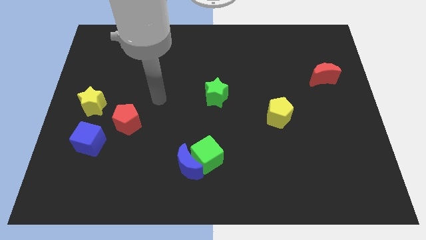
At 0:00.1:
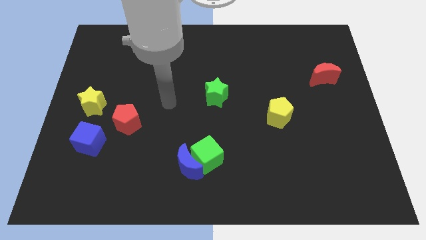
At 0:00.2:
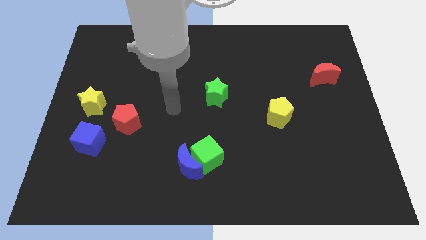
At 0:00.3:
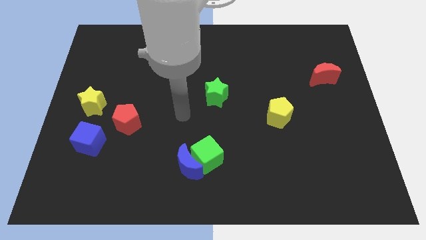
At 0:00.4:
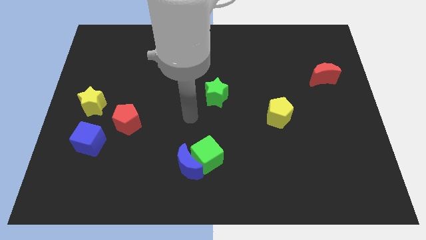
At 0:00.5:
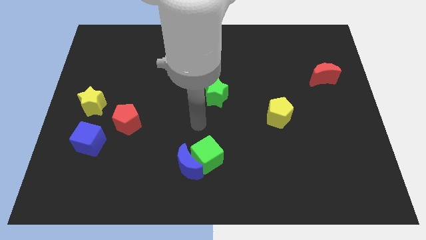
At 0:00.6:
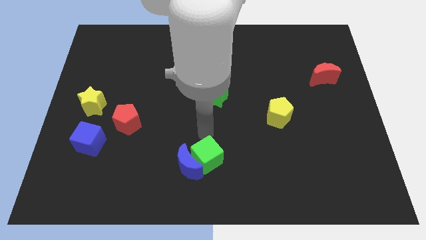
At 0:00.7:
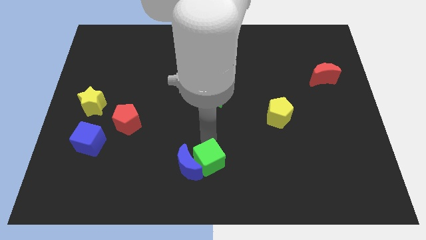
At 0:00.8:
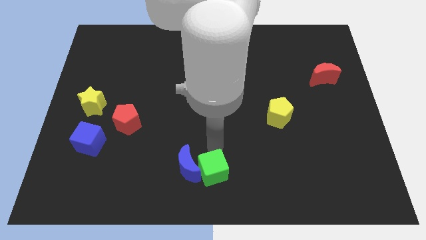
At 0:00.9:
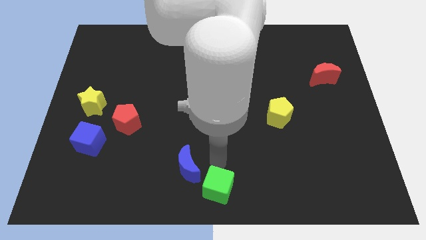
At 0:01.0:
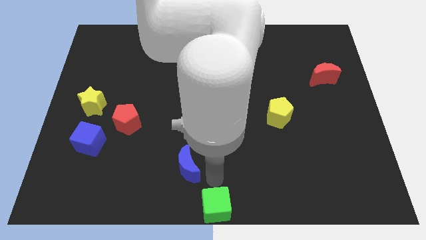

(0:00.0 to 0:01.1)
move the blue moon away from the green cube

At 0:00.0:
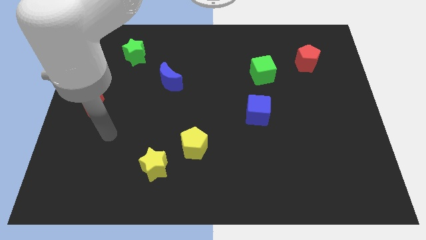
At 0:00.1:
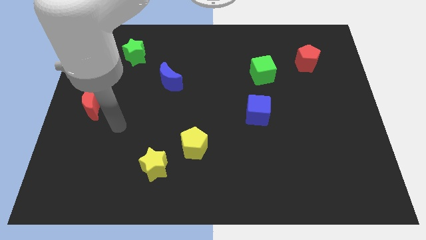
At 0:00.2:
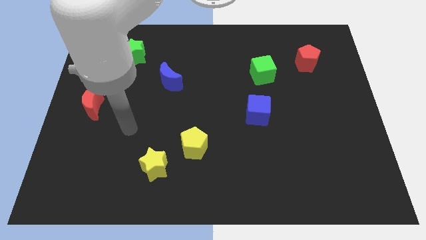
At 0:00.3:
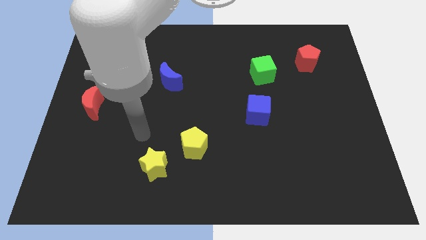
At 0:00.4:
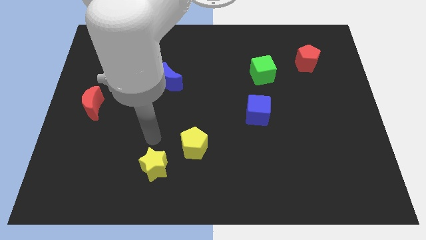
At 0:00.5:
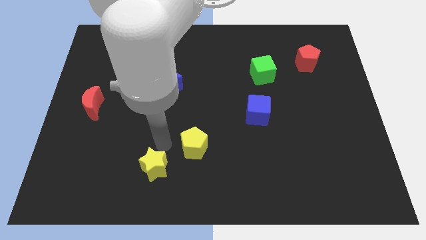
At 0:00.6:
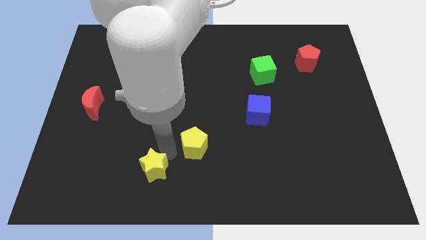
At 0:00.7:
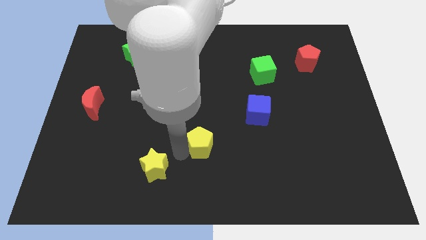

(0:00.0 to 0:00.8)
move the yellow star away from the yellow pentagon

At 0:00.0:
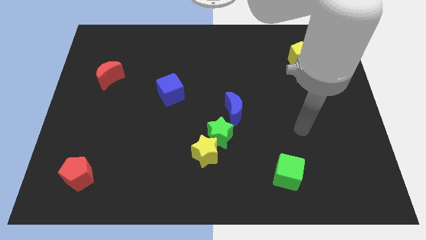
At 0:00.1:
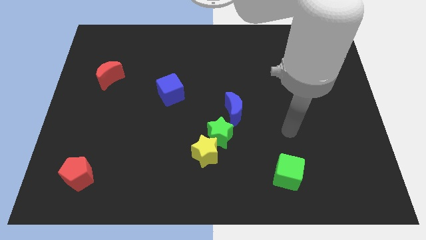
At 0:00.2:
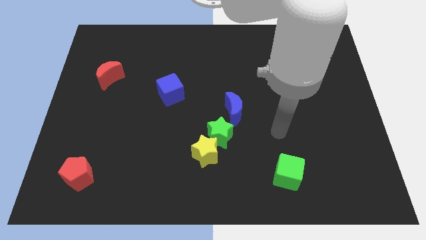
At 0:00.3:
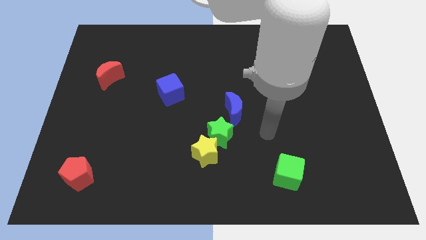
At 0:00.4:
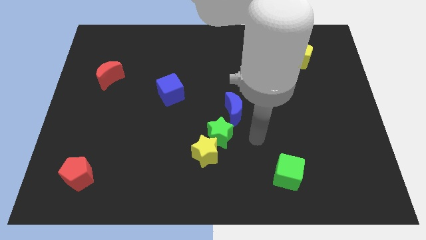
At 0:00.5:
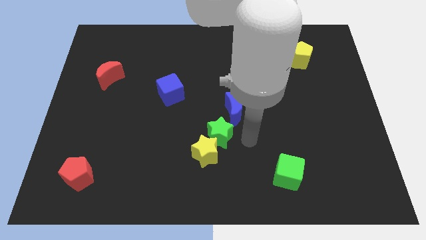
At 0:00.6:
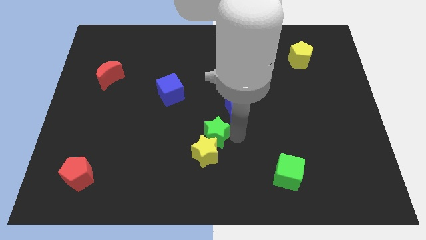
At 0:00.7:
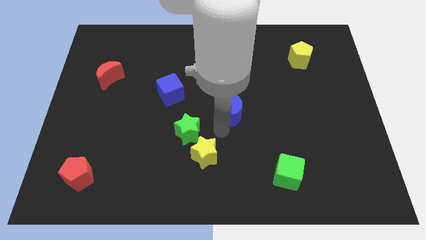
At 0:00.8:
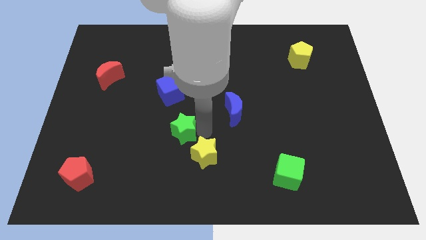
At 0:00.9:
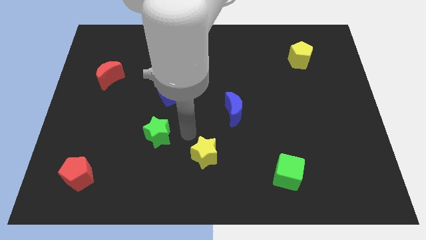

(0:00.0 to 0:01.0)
separate the yellow star from the green star

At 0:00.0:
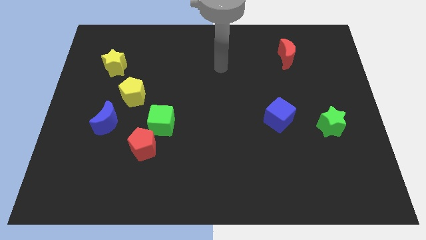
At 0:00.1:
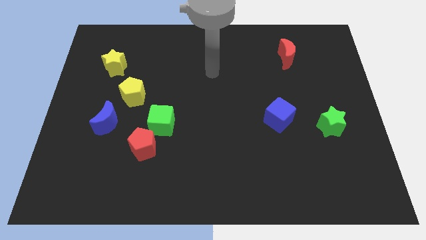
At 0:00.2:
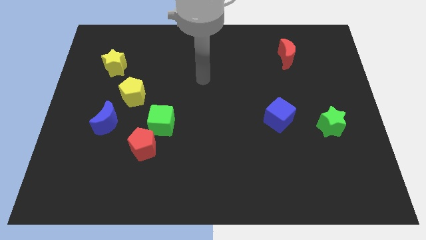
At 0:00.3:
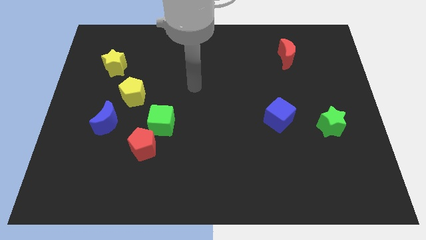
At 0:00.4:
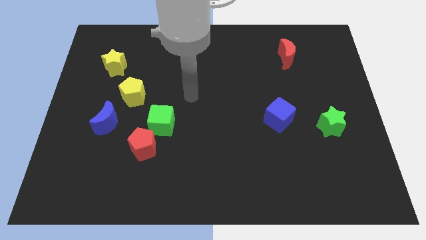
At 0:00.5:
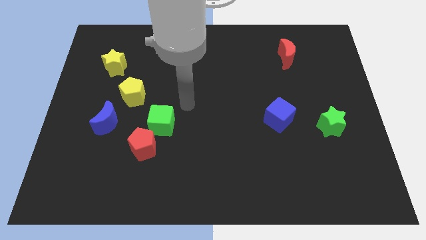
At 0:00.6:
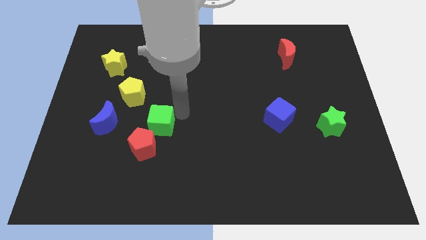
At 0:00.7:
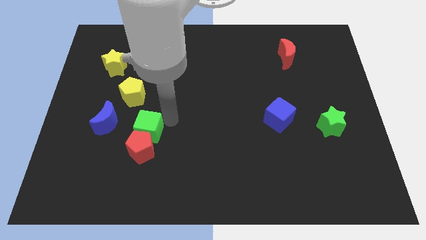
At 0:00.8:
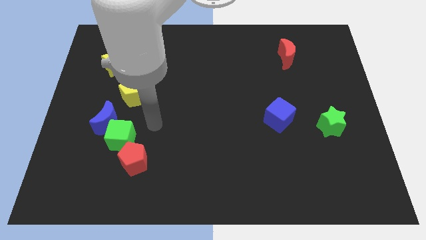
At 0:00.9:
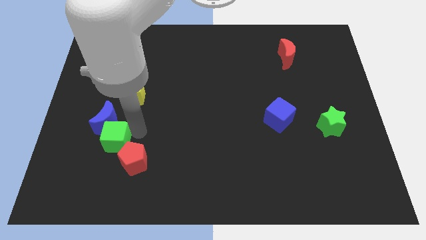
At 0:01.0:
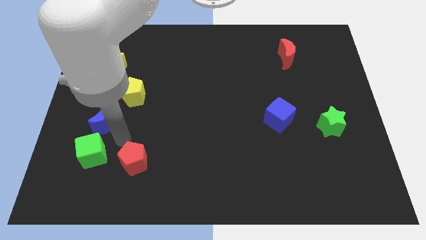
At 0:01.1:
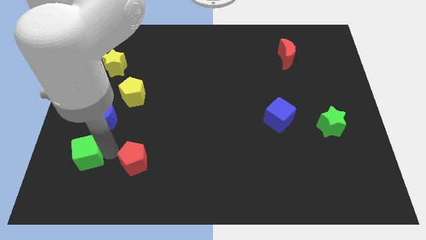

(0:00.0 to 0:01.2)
pull the red pentagon apart from the green cube

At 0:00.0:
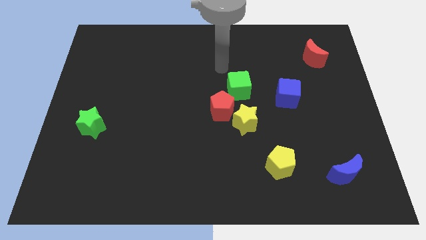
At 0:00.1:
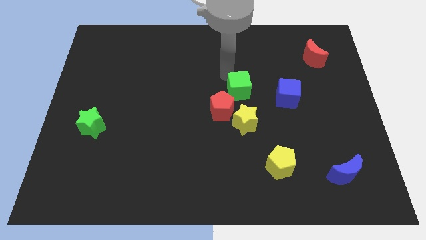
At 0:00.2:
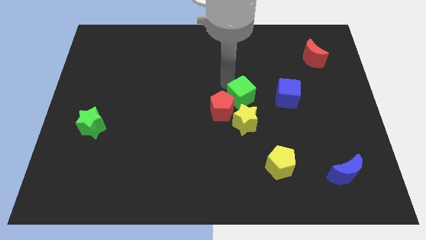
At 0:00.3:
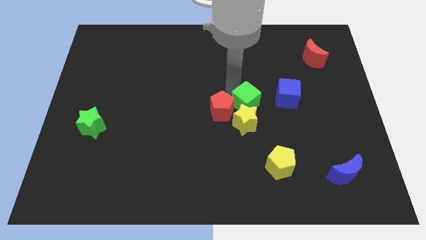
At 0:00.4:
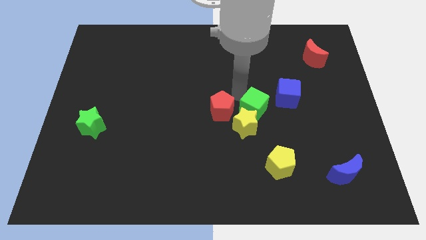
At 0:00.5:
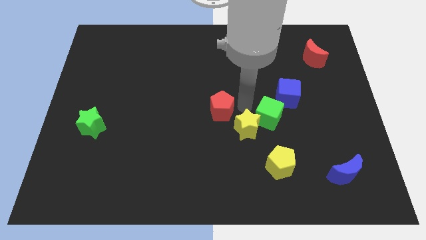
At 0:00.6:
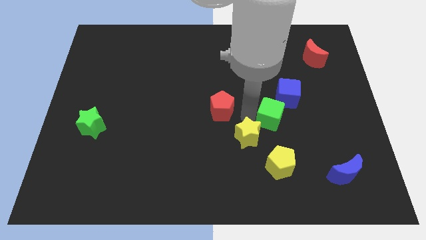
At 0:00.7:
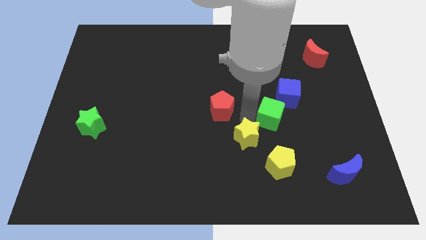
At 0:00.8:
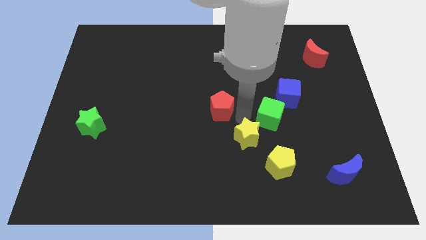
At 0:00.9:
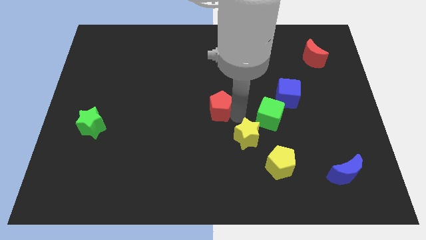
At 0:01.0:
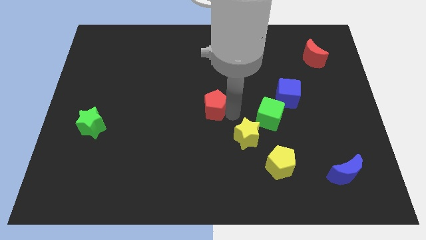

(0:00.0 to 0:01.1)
move the red pentagon away from the yellow star and green cube

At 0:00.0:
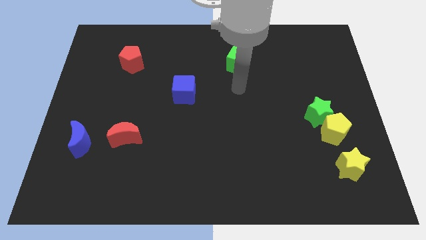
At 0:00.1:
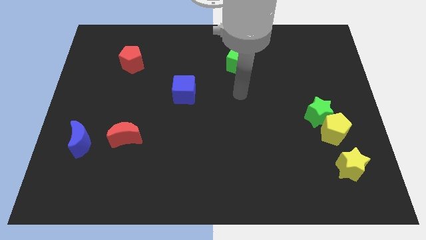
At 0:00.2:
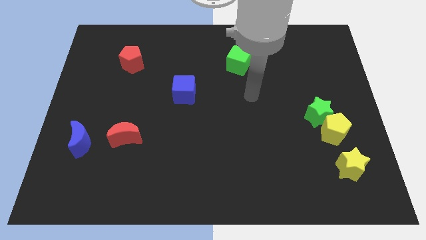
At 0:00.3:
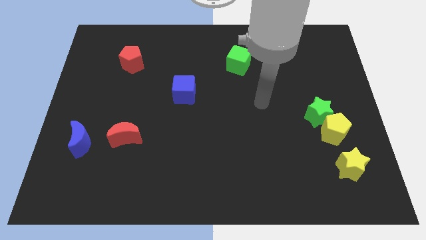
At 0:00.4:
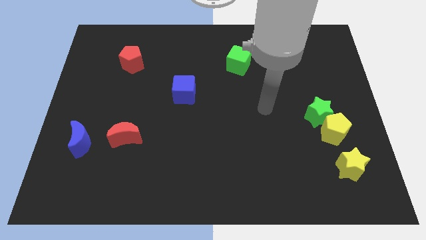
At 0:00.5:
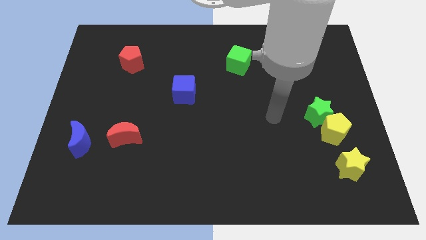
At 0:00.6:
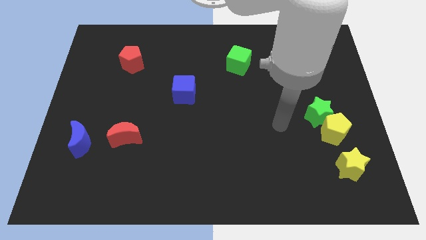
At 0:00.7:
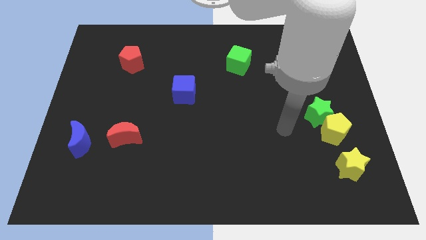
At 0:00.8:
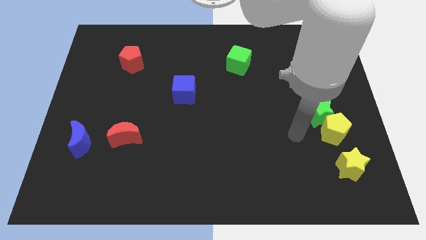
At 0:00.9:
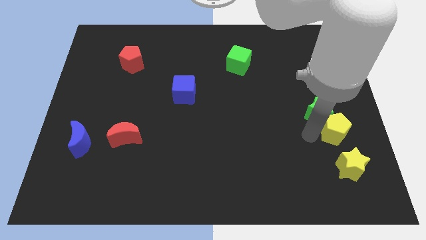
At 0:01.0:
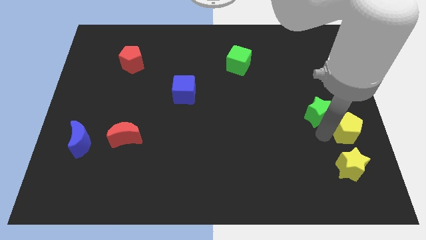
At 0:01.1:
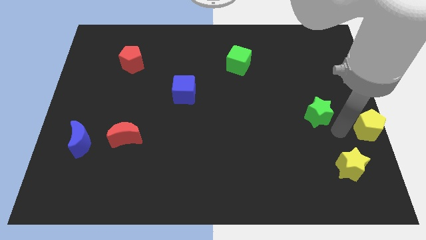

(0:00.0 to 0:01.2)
pull the green star apart from the yellow pentagon

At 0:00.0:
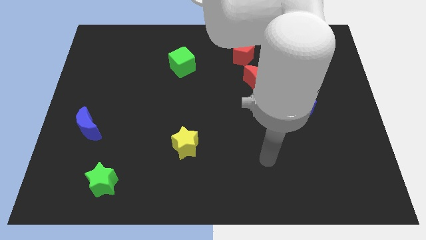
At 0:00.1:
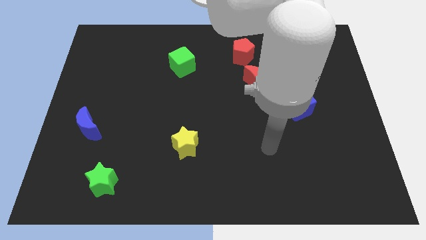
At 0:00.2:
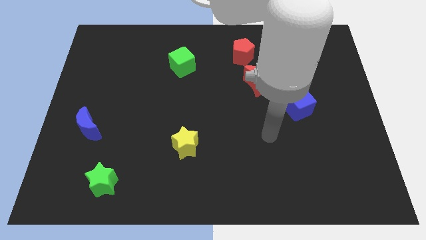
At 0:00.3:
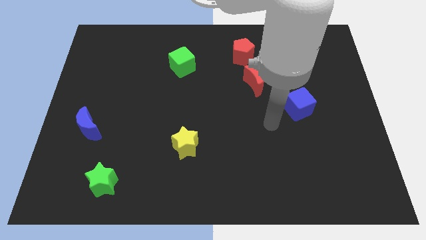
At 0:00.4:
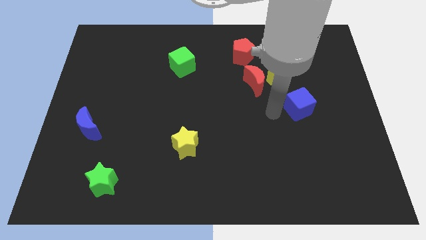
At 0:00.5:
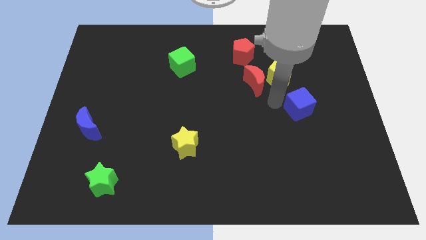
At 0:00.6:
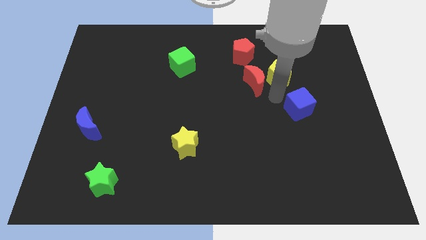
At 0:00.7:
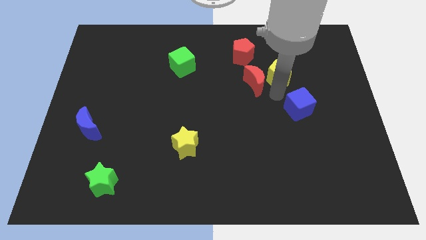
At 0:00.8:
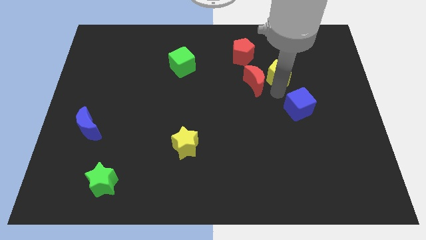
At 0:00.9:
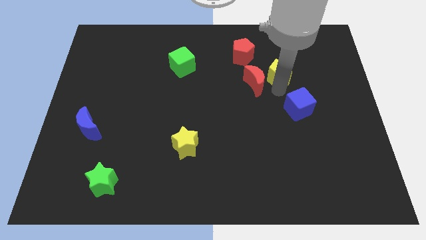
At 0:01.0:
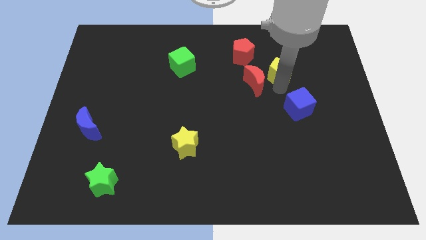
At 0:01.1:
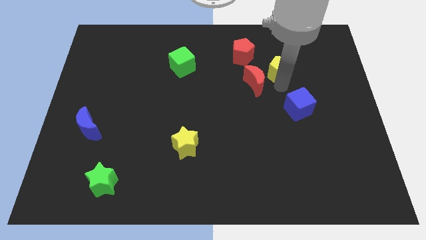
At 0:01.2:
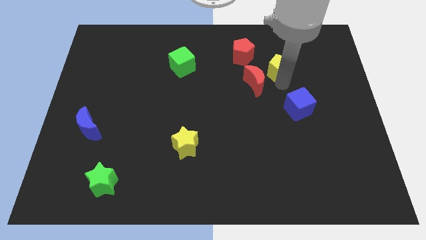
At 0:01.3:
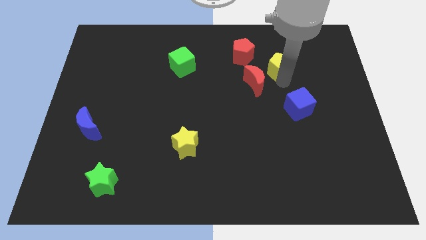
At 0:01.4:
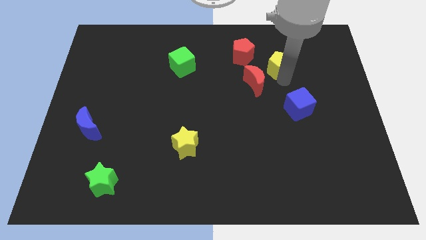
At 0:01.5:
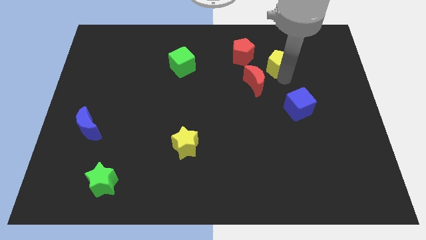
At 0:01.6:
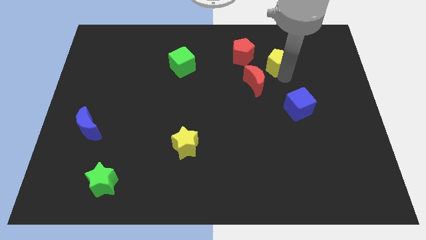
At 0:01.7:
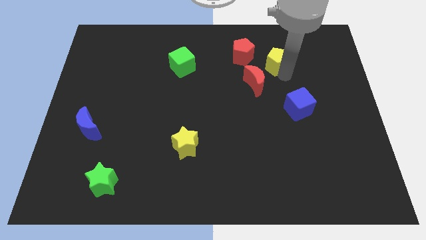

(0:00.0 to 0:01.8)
separate the yellow pentagon from the red moon and blue cube

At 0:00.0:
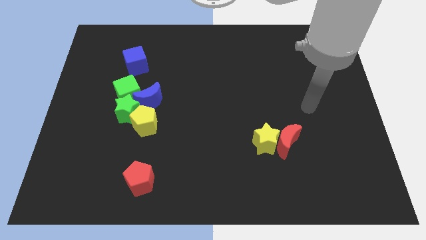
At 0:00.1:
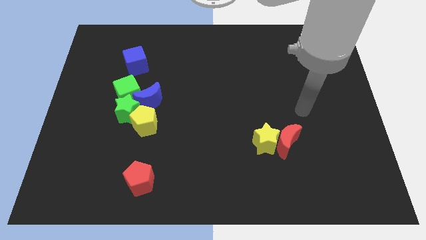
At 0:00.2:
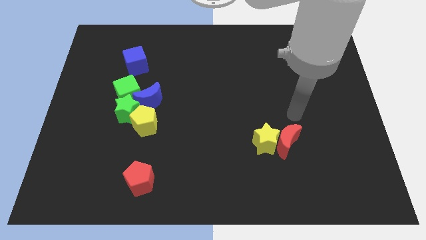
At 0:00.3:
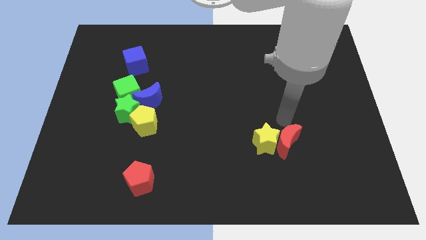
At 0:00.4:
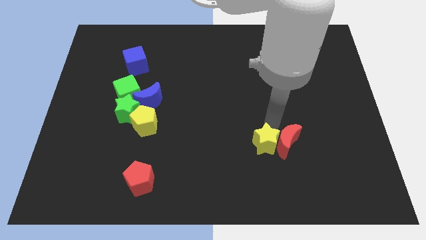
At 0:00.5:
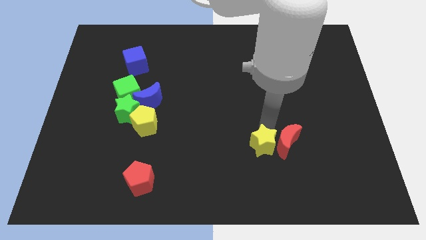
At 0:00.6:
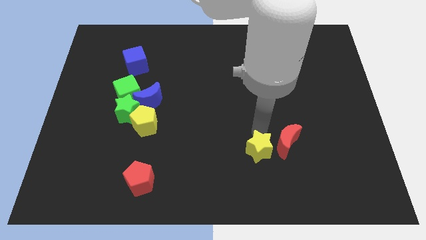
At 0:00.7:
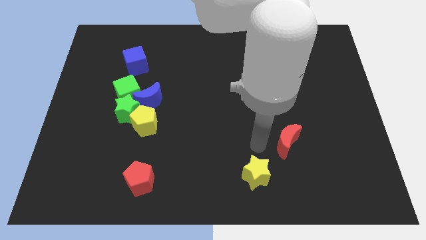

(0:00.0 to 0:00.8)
move the red moon away from the yellow star

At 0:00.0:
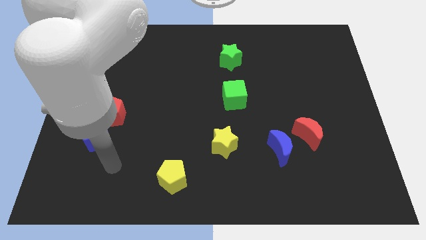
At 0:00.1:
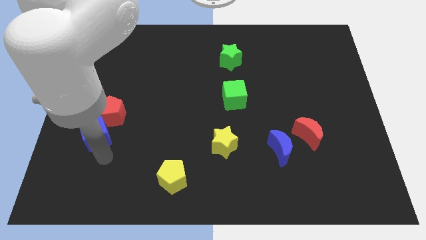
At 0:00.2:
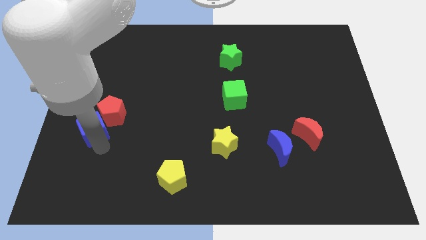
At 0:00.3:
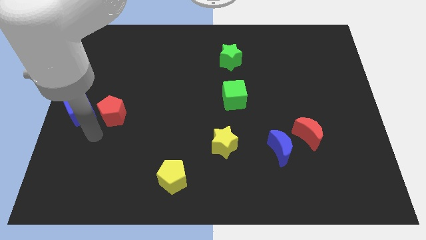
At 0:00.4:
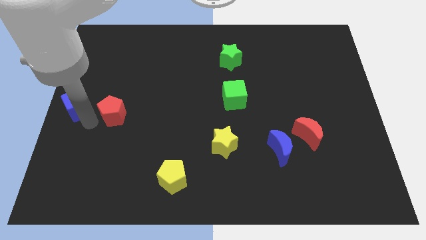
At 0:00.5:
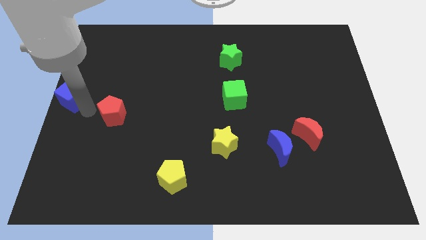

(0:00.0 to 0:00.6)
move the red pentagon away from the blue cube
